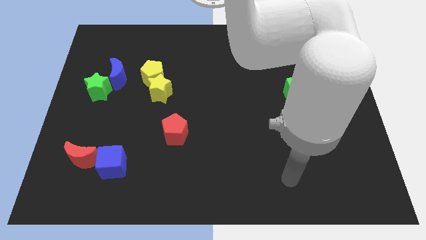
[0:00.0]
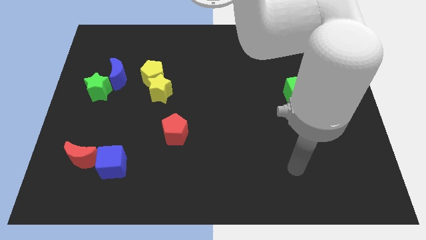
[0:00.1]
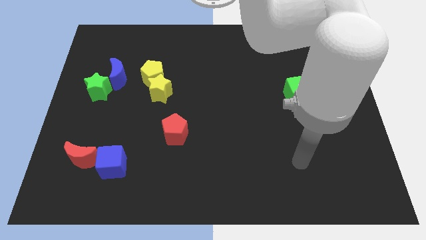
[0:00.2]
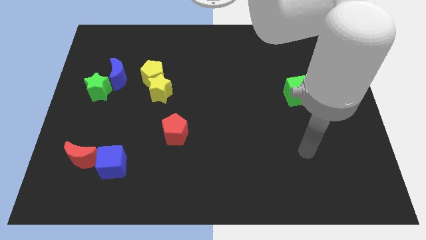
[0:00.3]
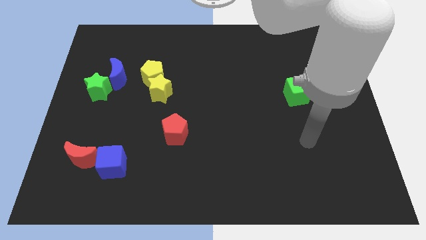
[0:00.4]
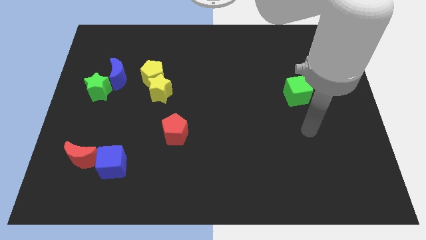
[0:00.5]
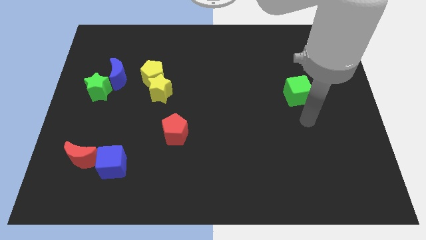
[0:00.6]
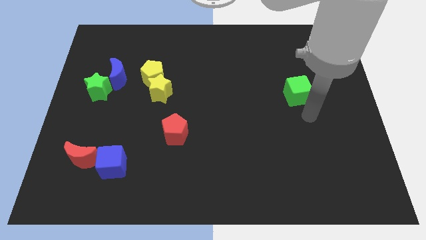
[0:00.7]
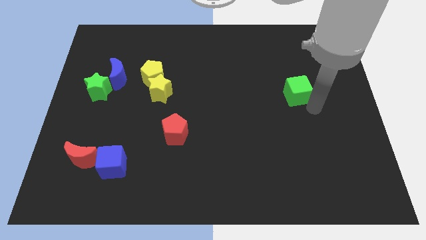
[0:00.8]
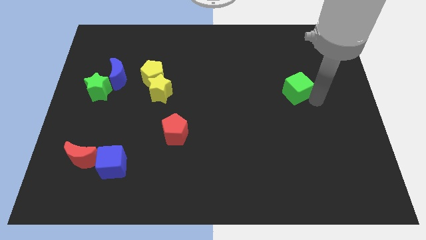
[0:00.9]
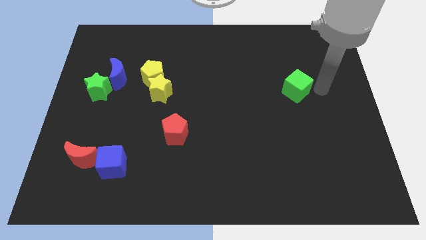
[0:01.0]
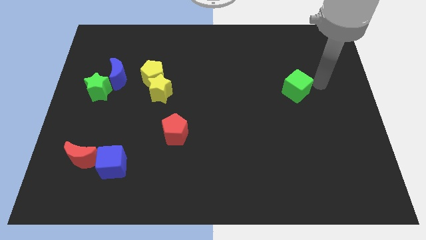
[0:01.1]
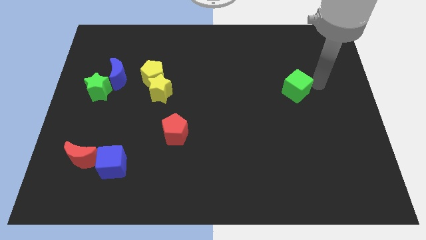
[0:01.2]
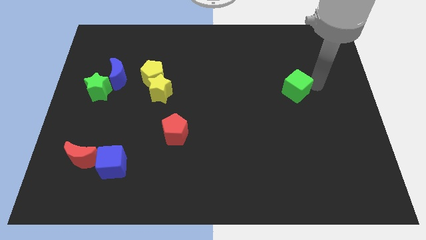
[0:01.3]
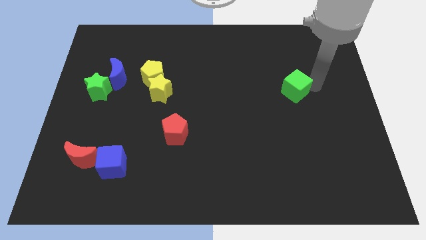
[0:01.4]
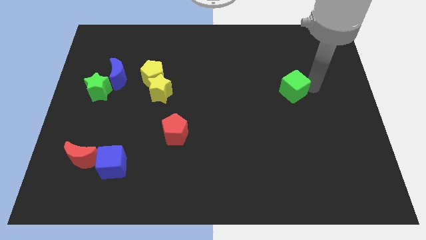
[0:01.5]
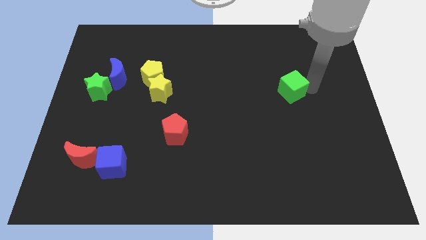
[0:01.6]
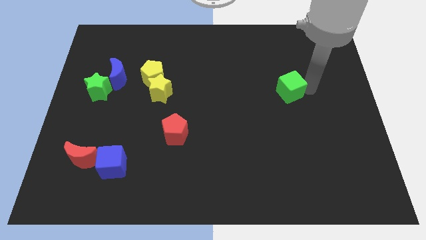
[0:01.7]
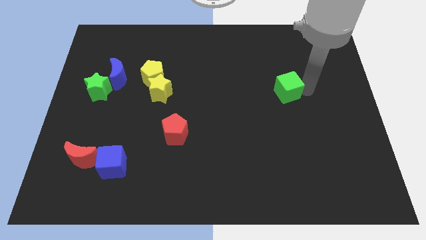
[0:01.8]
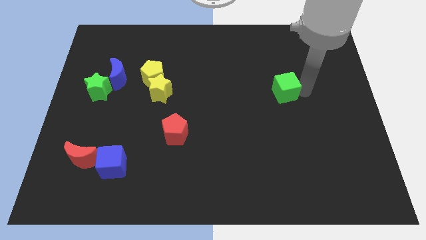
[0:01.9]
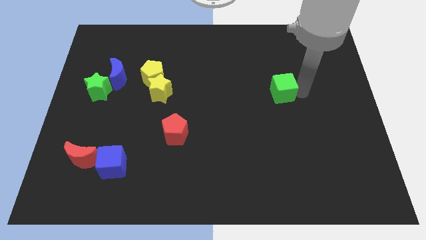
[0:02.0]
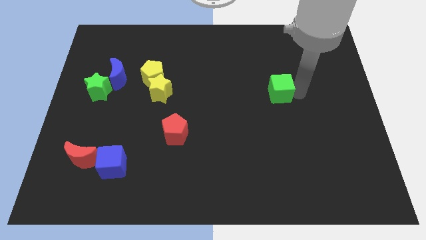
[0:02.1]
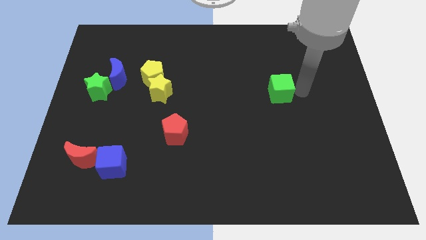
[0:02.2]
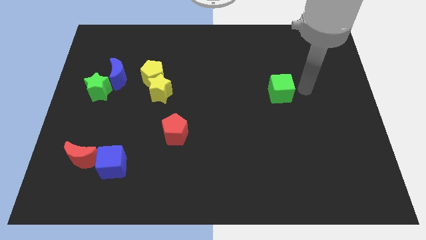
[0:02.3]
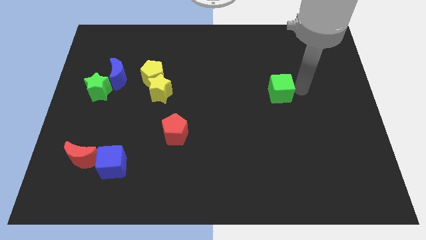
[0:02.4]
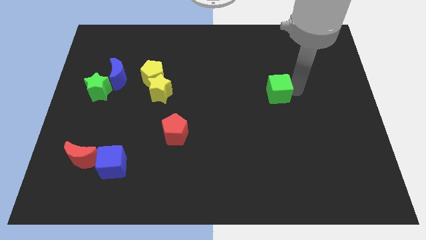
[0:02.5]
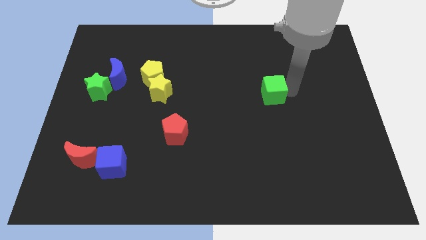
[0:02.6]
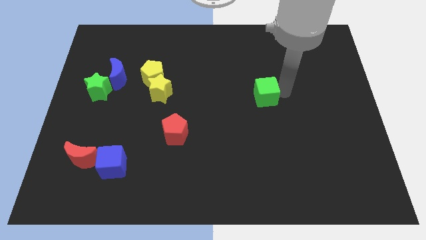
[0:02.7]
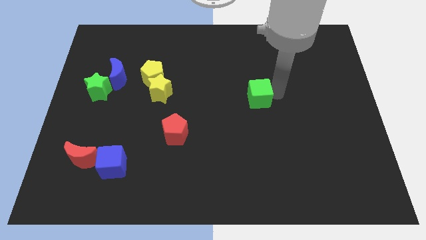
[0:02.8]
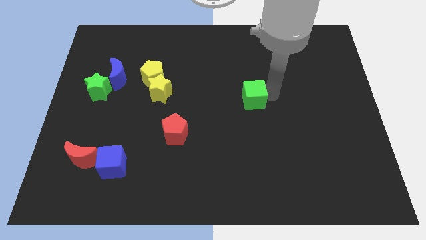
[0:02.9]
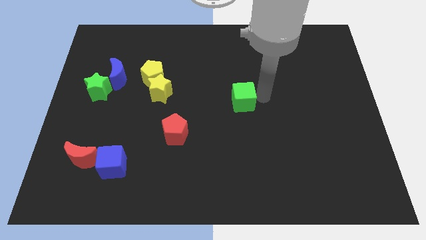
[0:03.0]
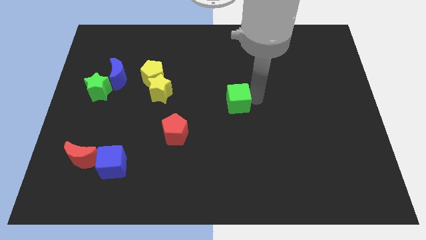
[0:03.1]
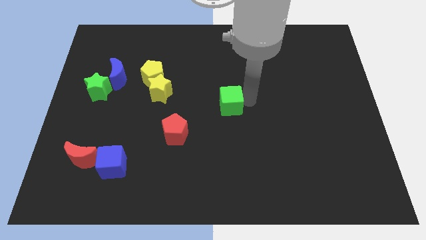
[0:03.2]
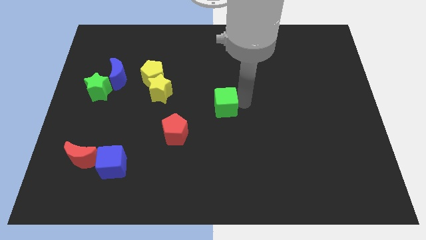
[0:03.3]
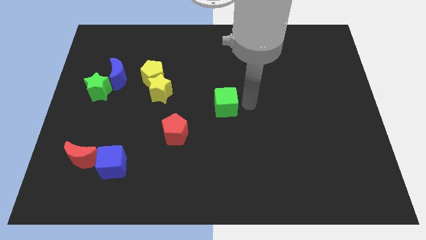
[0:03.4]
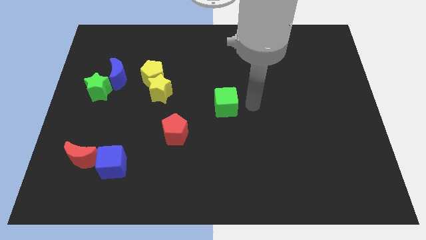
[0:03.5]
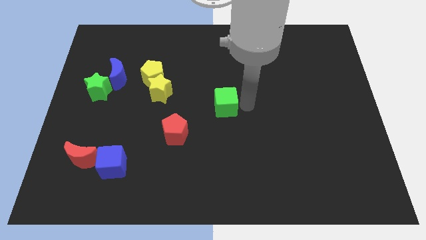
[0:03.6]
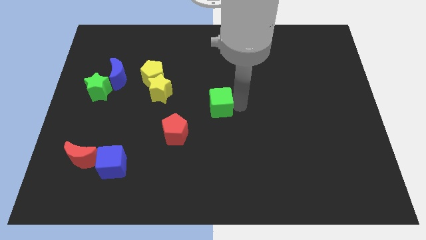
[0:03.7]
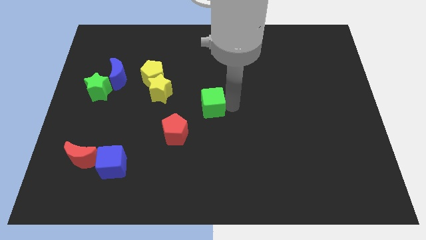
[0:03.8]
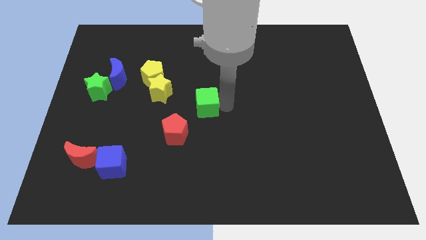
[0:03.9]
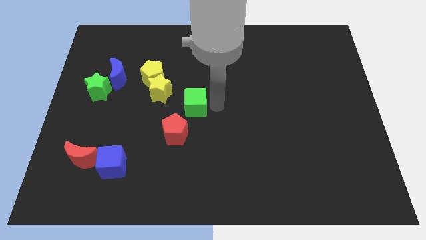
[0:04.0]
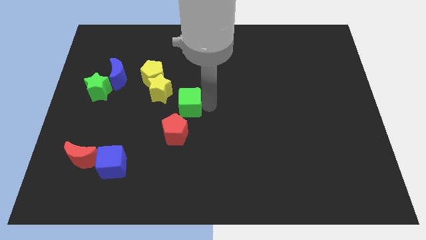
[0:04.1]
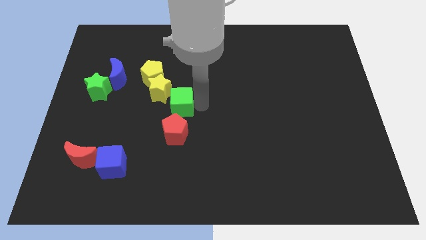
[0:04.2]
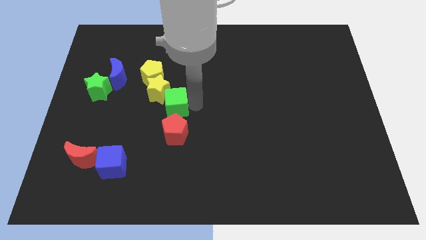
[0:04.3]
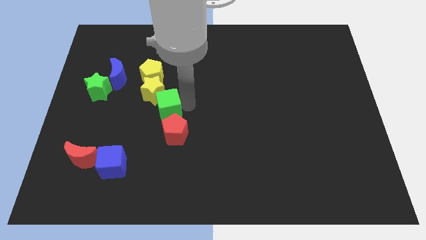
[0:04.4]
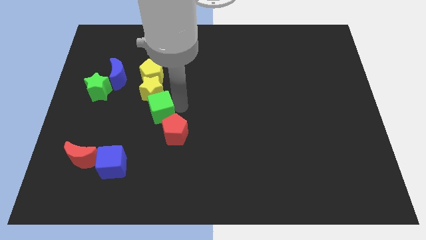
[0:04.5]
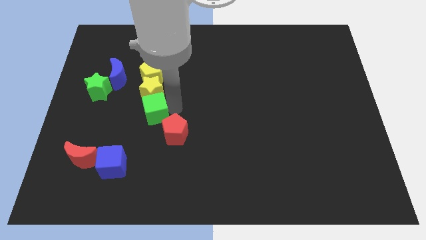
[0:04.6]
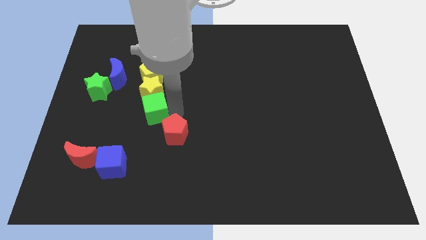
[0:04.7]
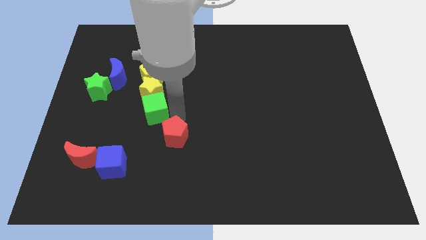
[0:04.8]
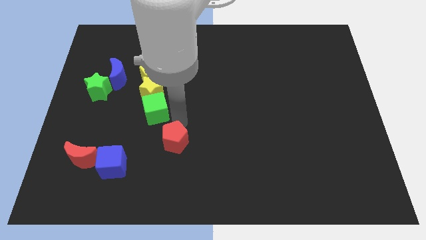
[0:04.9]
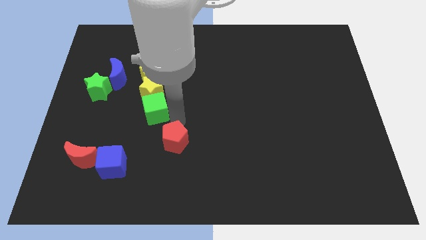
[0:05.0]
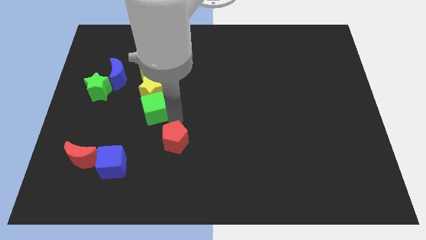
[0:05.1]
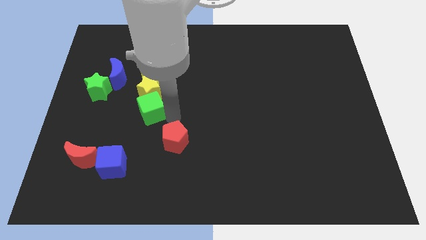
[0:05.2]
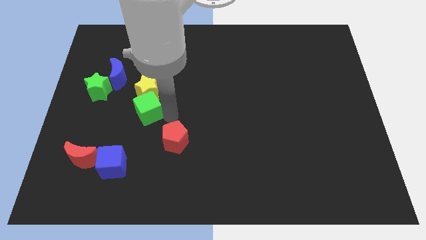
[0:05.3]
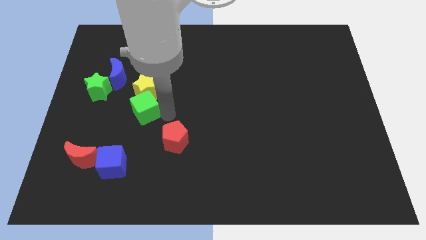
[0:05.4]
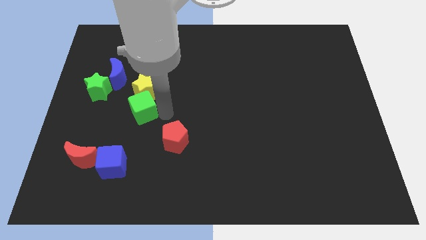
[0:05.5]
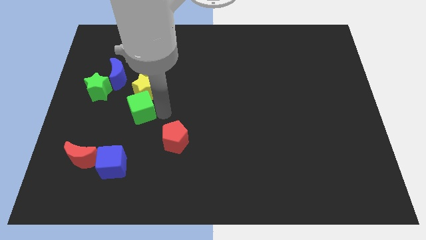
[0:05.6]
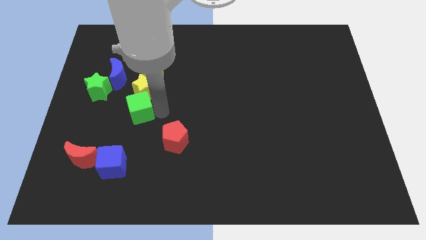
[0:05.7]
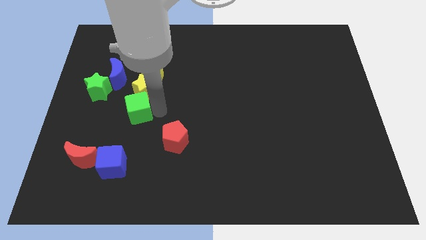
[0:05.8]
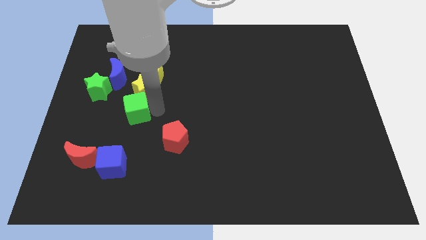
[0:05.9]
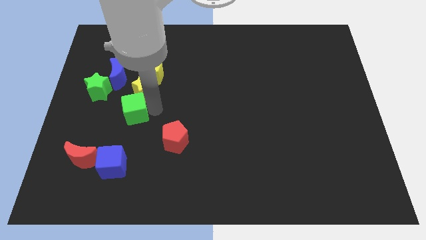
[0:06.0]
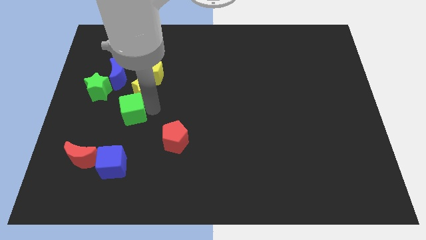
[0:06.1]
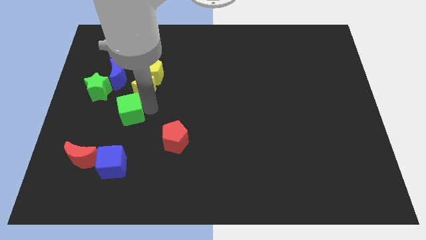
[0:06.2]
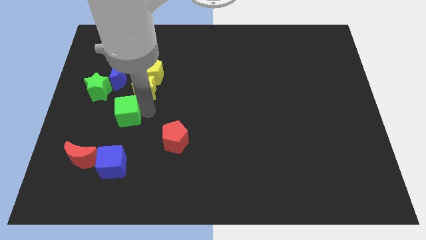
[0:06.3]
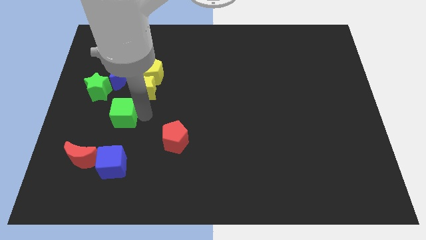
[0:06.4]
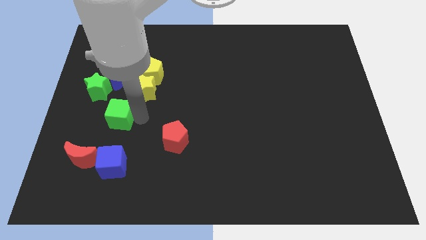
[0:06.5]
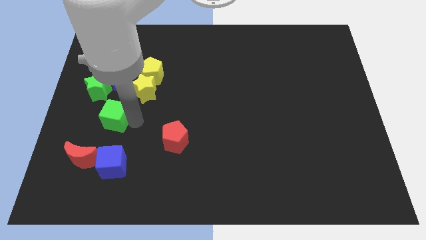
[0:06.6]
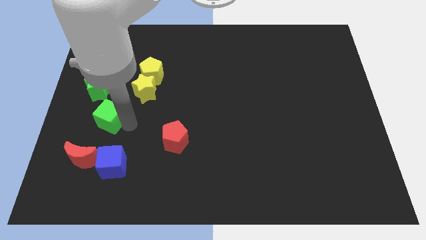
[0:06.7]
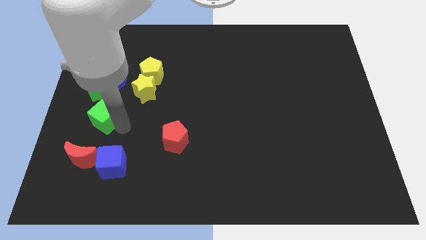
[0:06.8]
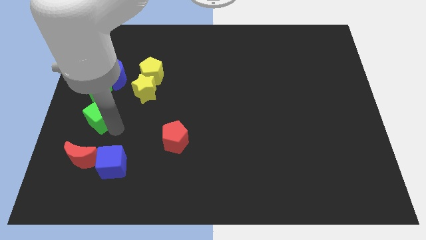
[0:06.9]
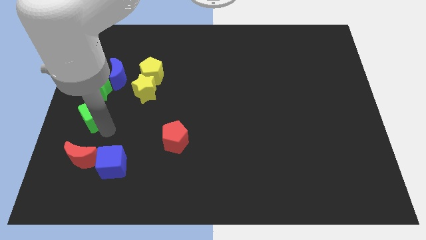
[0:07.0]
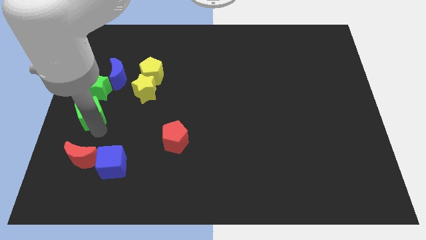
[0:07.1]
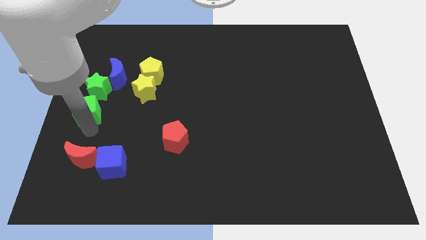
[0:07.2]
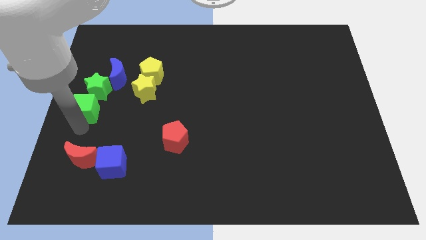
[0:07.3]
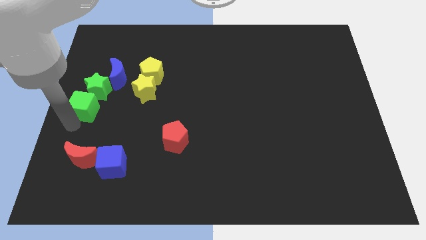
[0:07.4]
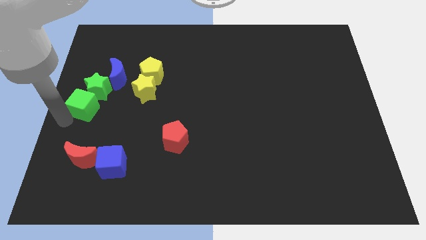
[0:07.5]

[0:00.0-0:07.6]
move the green cube close to the green star
